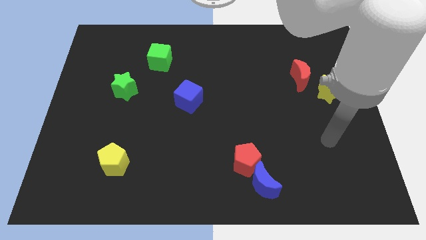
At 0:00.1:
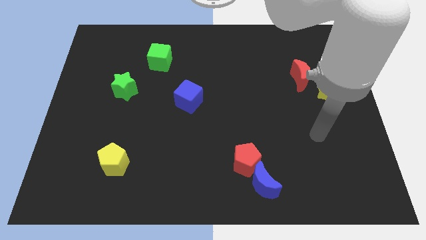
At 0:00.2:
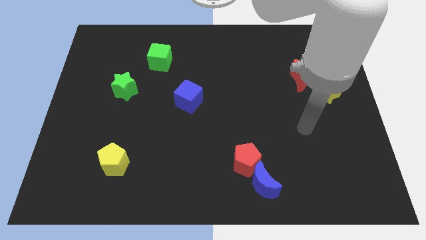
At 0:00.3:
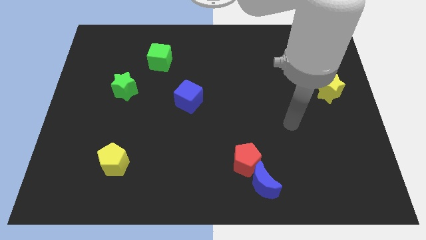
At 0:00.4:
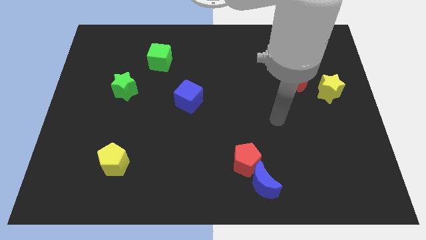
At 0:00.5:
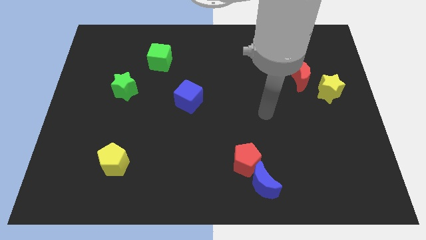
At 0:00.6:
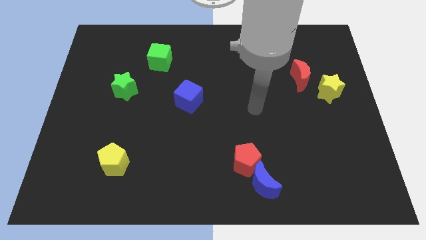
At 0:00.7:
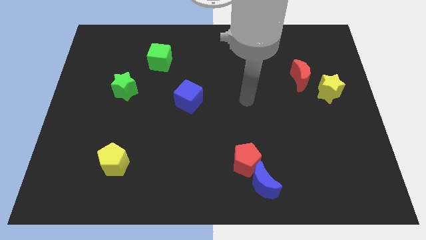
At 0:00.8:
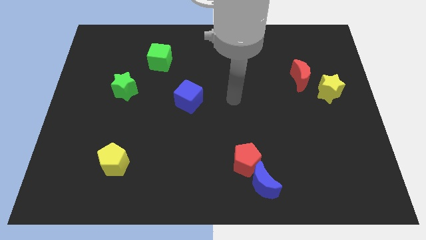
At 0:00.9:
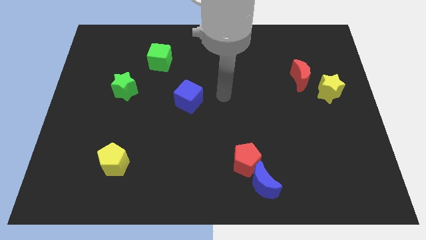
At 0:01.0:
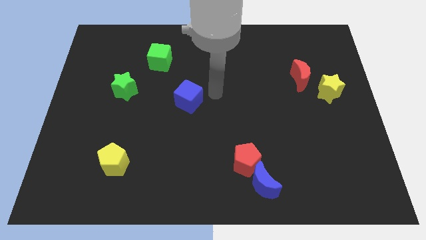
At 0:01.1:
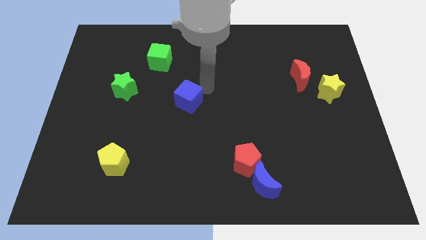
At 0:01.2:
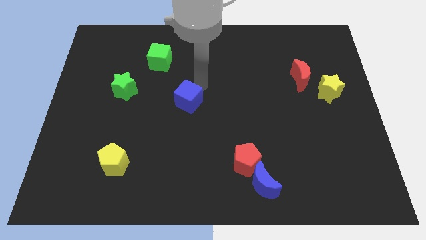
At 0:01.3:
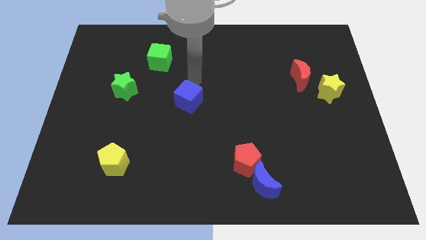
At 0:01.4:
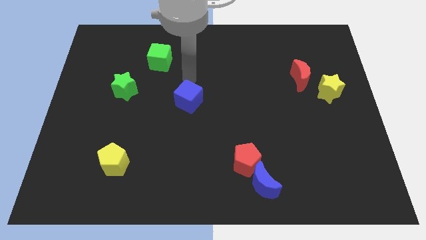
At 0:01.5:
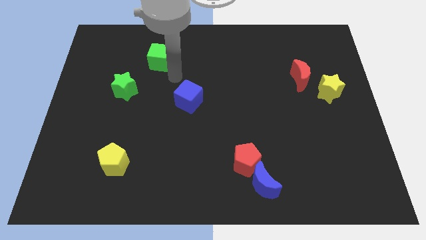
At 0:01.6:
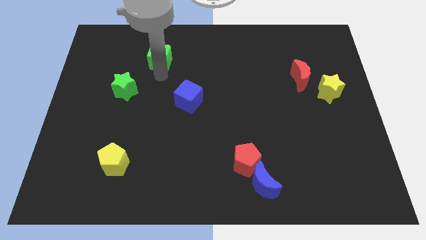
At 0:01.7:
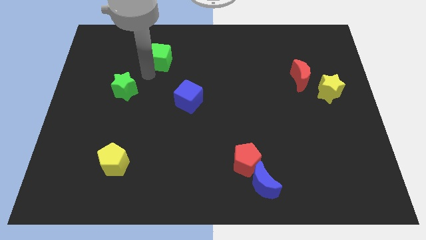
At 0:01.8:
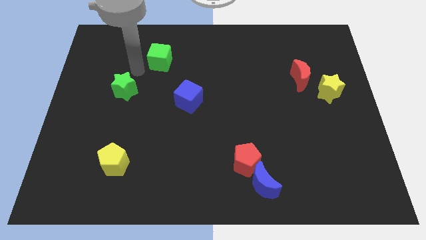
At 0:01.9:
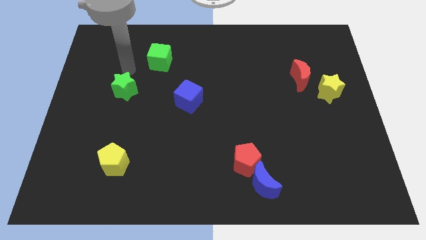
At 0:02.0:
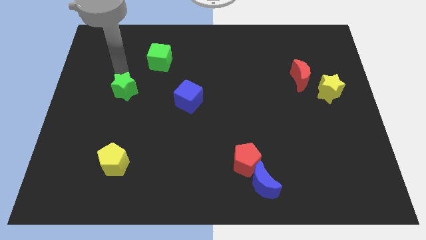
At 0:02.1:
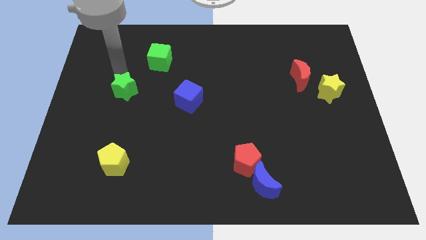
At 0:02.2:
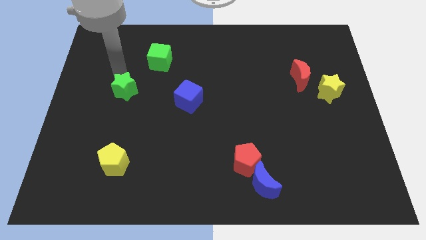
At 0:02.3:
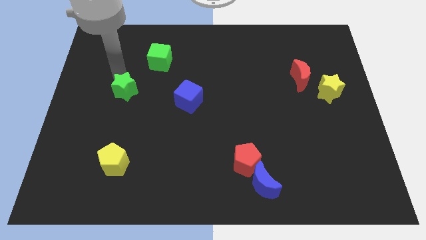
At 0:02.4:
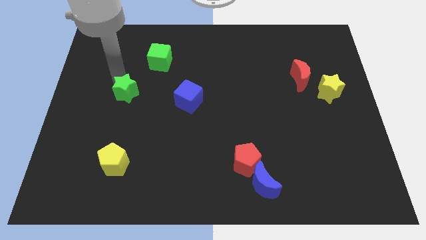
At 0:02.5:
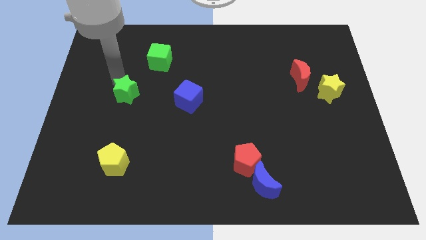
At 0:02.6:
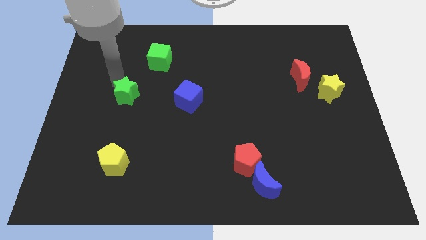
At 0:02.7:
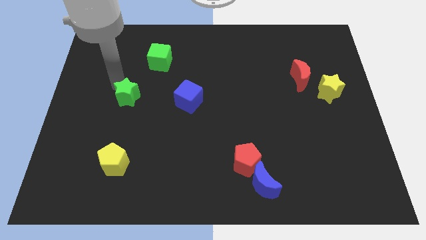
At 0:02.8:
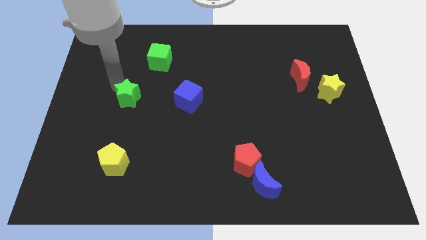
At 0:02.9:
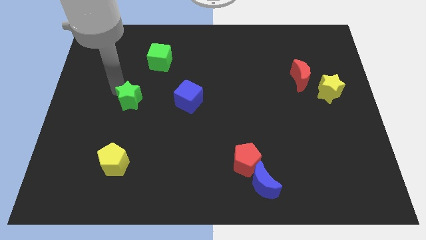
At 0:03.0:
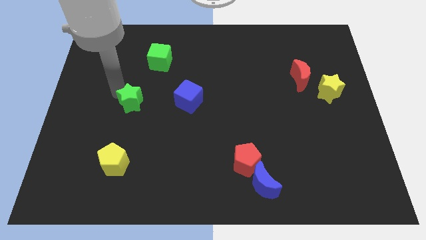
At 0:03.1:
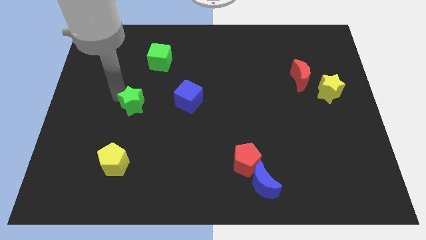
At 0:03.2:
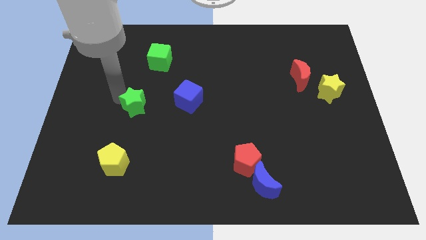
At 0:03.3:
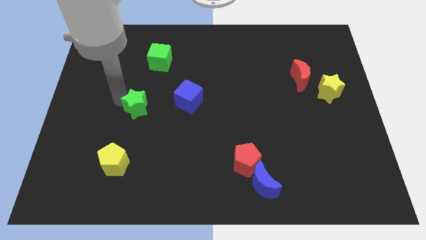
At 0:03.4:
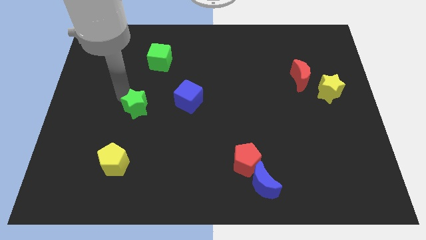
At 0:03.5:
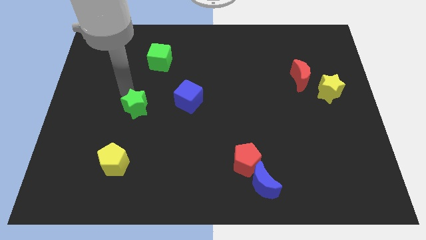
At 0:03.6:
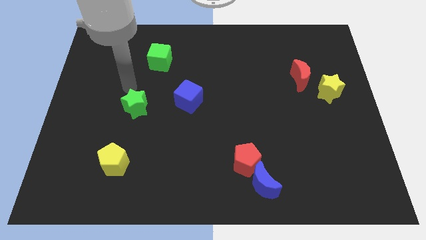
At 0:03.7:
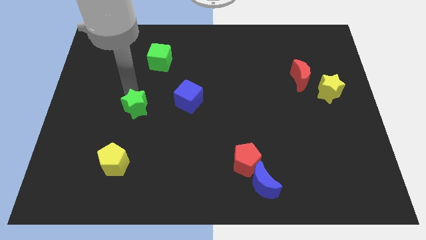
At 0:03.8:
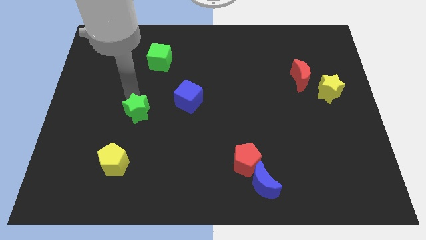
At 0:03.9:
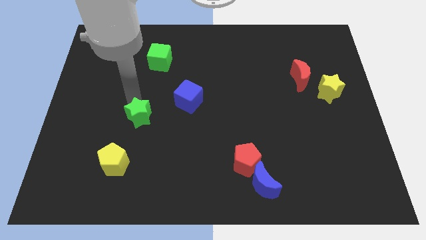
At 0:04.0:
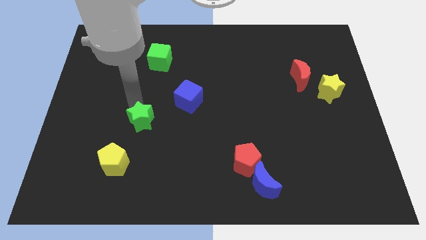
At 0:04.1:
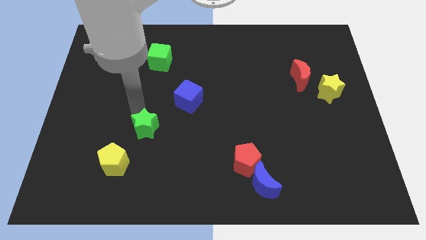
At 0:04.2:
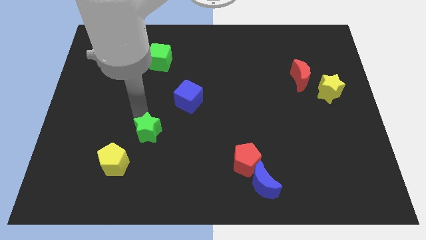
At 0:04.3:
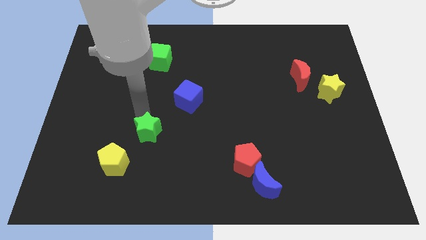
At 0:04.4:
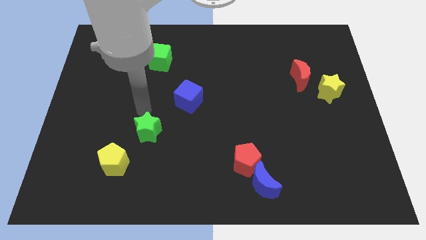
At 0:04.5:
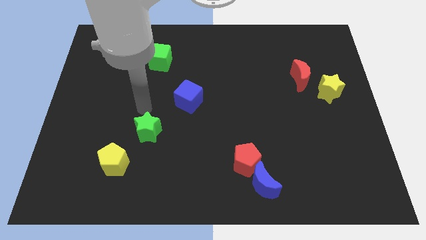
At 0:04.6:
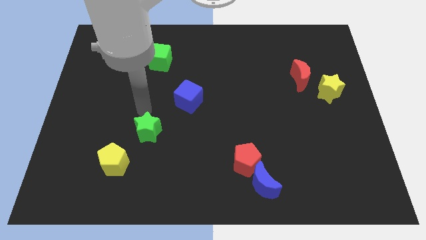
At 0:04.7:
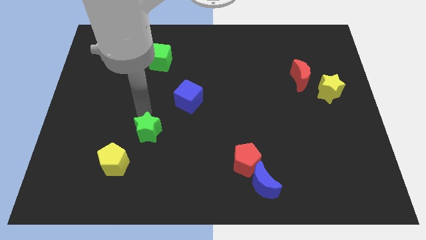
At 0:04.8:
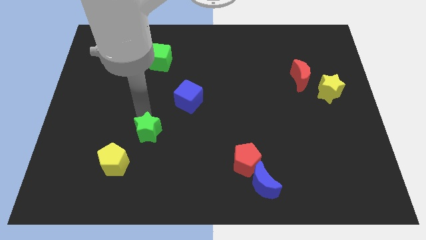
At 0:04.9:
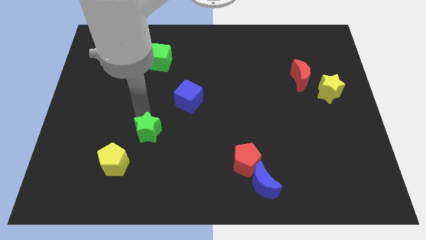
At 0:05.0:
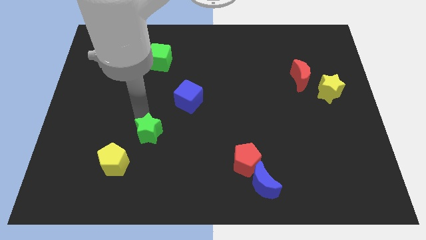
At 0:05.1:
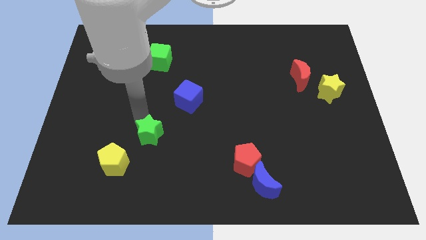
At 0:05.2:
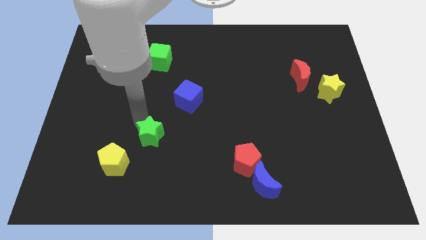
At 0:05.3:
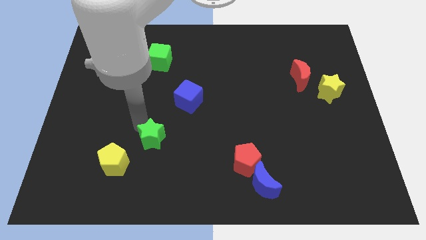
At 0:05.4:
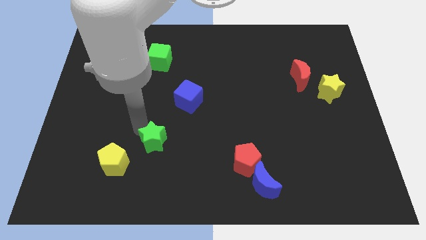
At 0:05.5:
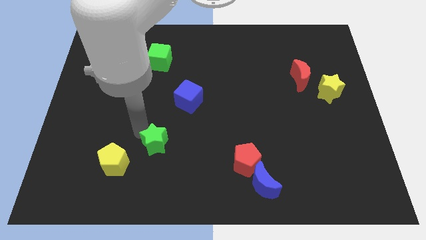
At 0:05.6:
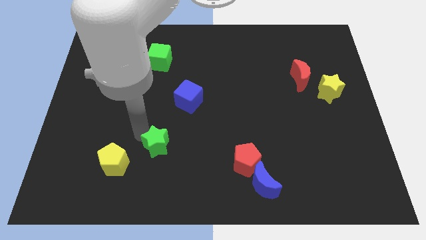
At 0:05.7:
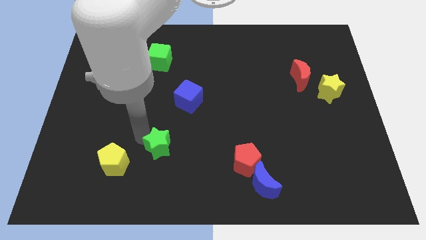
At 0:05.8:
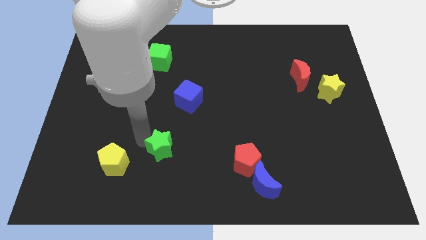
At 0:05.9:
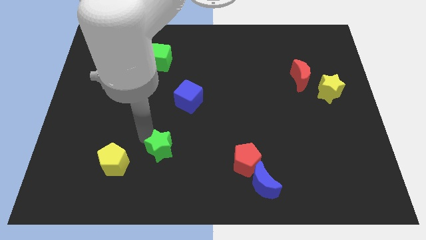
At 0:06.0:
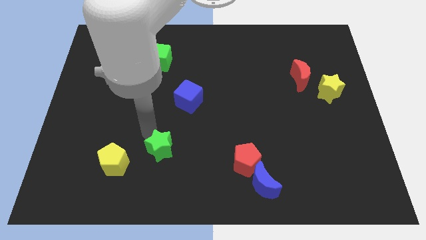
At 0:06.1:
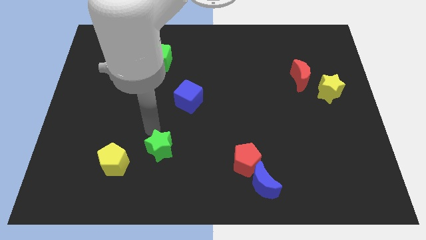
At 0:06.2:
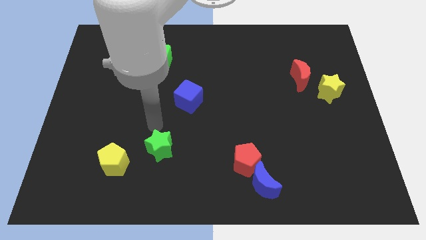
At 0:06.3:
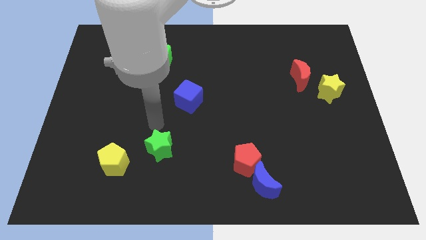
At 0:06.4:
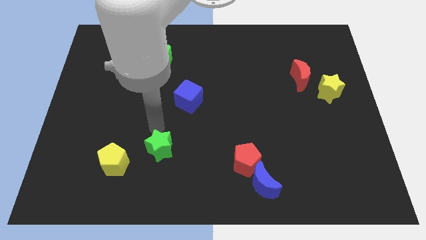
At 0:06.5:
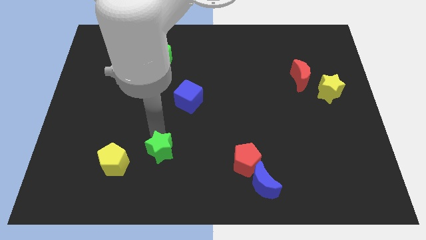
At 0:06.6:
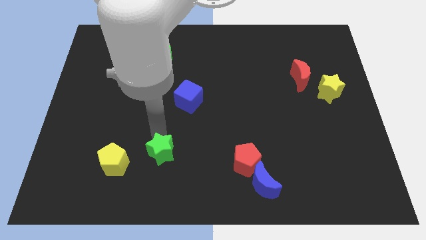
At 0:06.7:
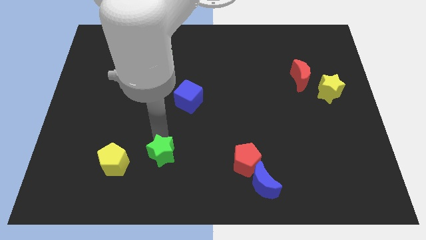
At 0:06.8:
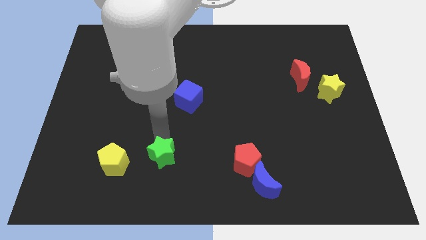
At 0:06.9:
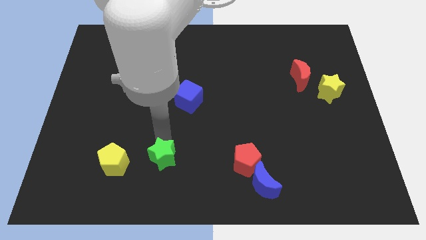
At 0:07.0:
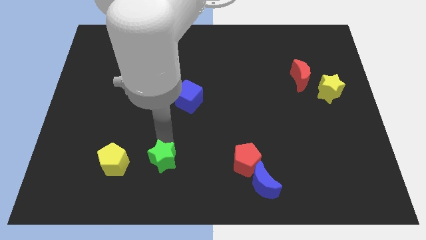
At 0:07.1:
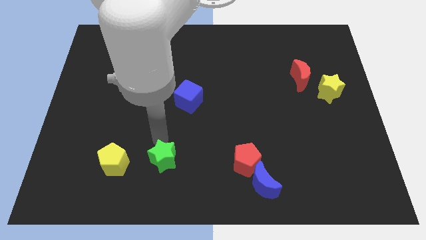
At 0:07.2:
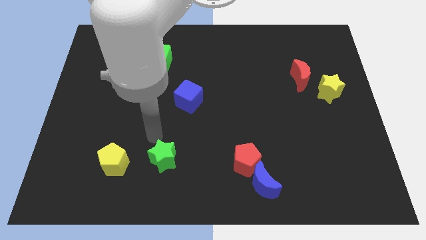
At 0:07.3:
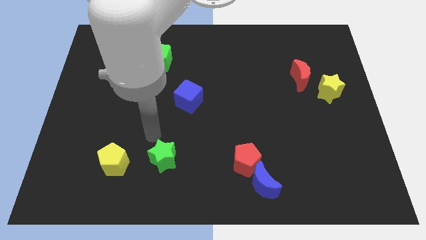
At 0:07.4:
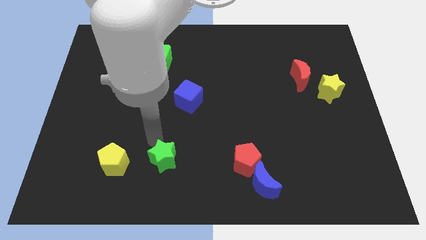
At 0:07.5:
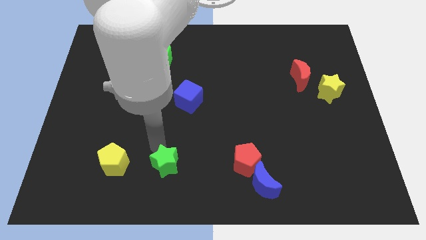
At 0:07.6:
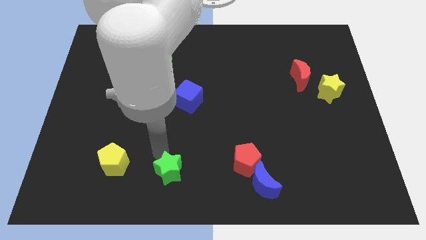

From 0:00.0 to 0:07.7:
slide the green star to the bottom

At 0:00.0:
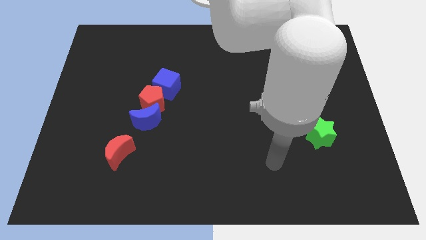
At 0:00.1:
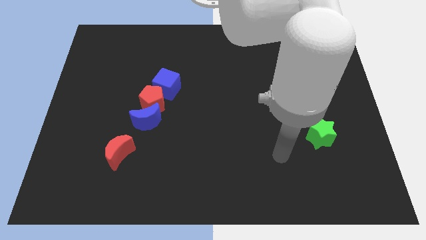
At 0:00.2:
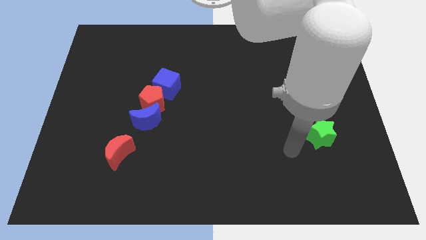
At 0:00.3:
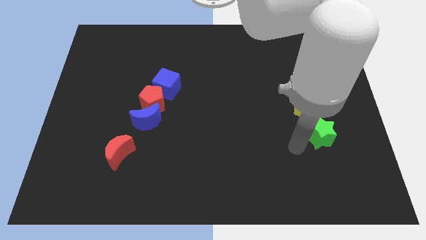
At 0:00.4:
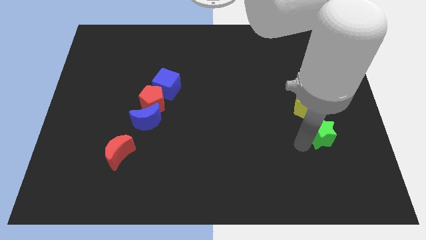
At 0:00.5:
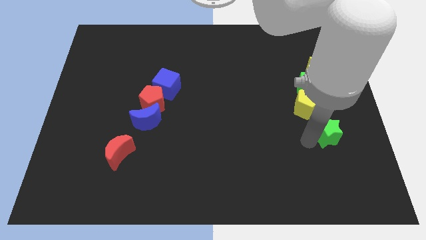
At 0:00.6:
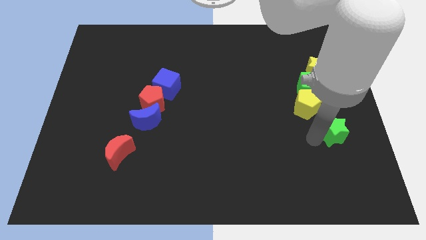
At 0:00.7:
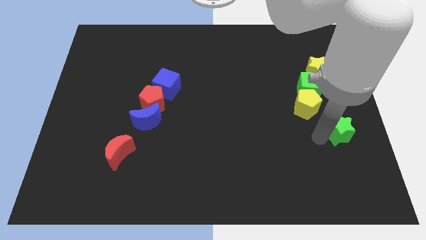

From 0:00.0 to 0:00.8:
slide the green star to the center right
